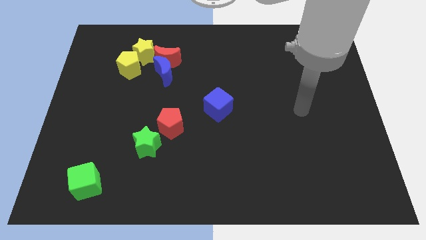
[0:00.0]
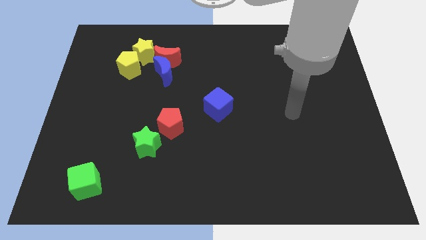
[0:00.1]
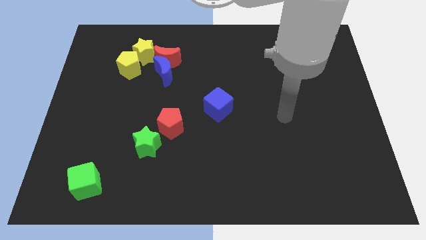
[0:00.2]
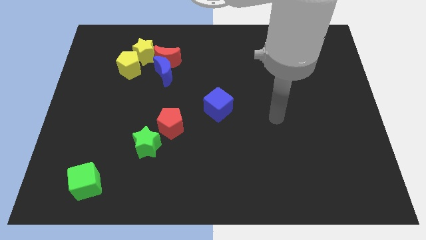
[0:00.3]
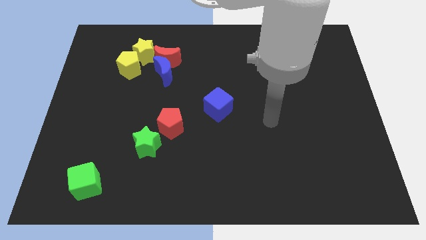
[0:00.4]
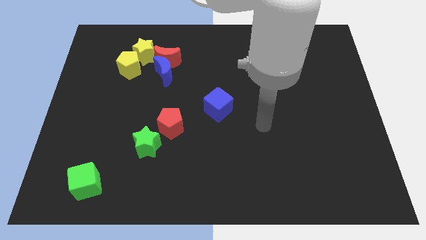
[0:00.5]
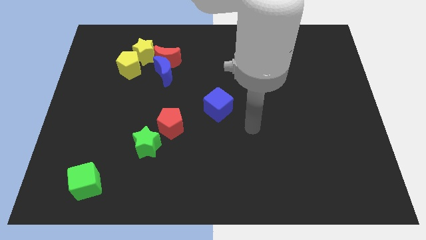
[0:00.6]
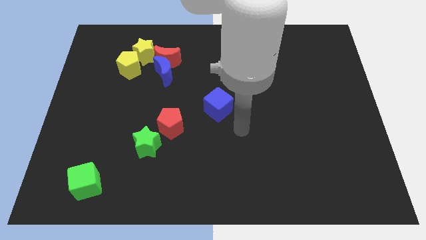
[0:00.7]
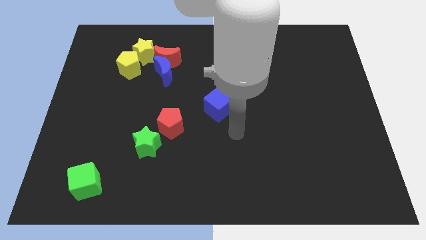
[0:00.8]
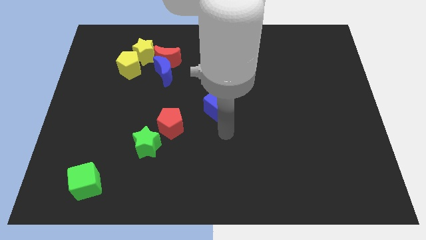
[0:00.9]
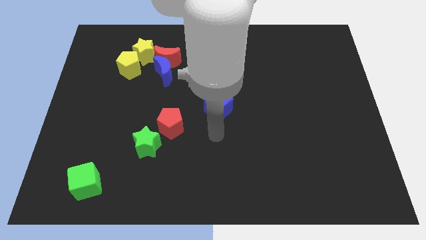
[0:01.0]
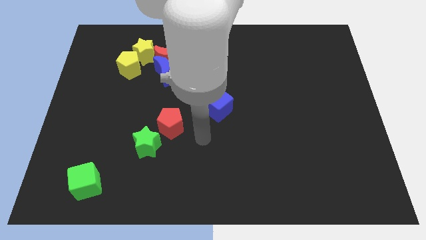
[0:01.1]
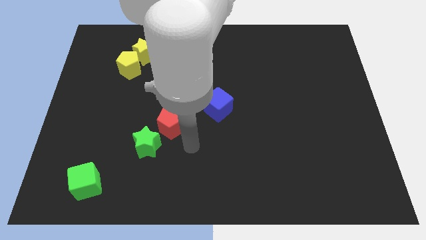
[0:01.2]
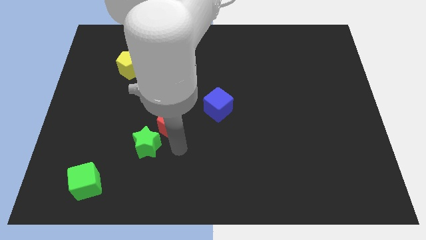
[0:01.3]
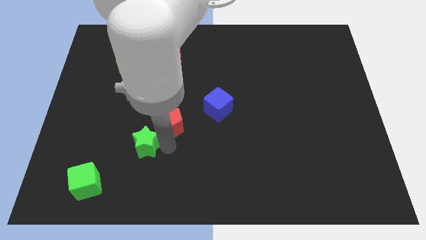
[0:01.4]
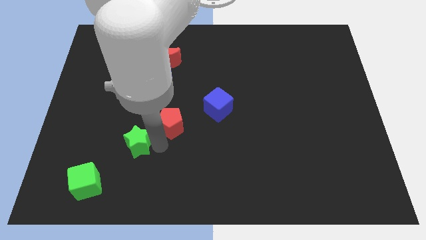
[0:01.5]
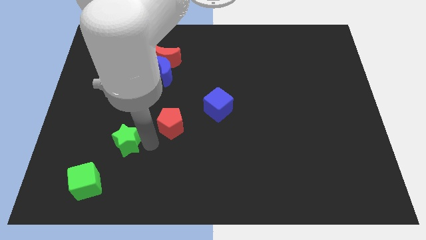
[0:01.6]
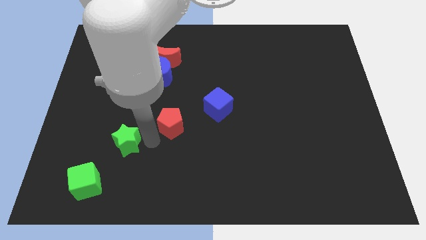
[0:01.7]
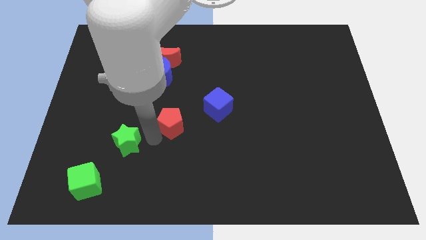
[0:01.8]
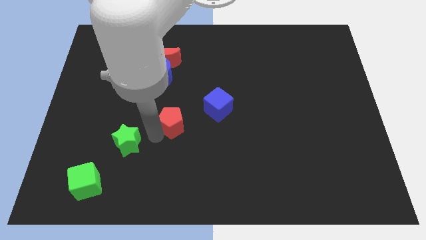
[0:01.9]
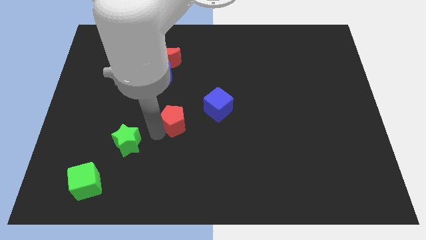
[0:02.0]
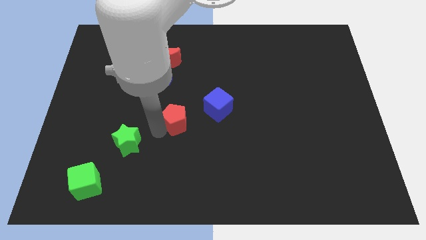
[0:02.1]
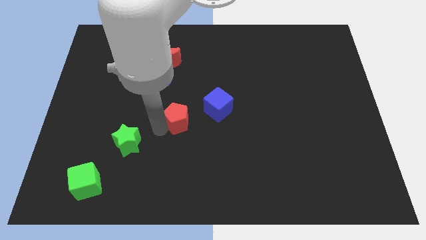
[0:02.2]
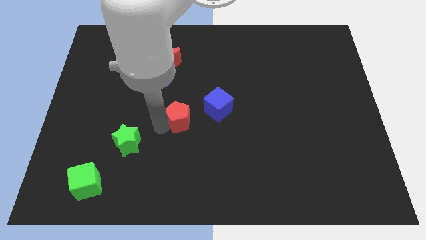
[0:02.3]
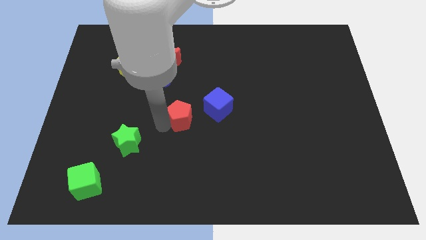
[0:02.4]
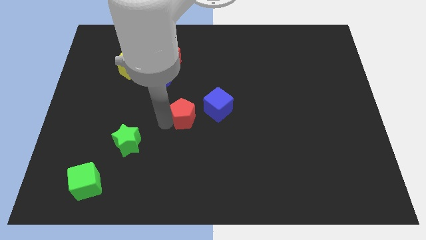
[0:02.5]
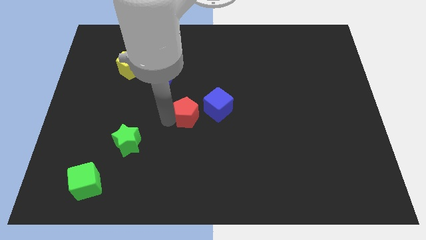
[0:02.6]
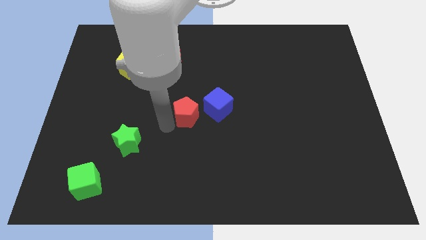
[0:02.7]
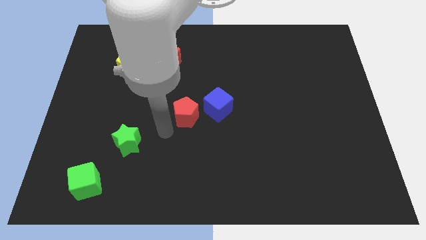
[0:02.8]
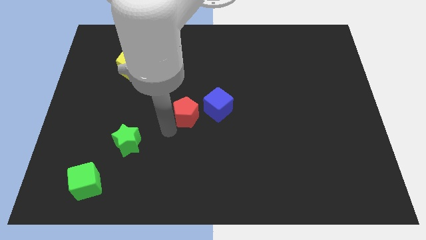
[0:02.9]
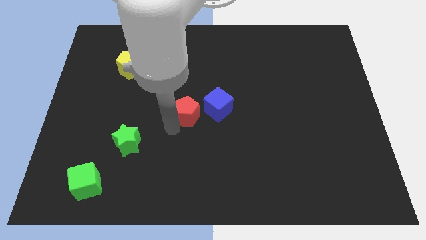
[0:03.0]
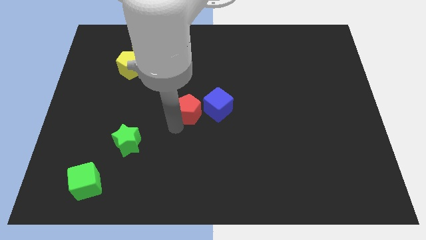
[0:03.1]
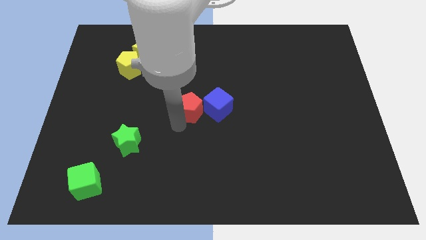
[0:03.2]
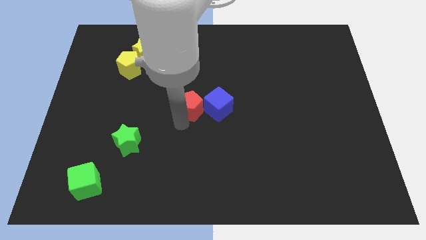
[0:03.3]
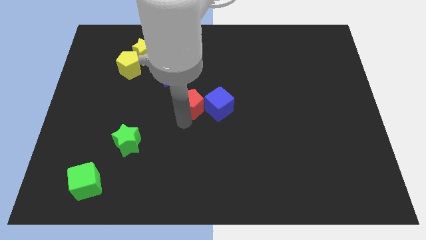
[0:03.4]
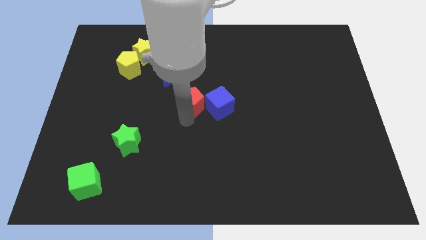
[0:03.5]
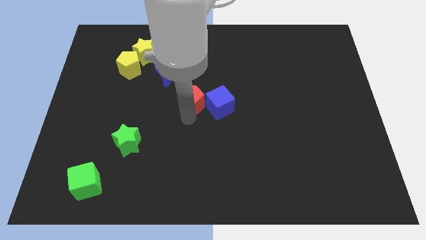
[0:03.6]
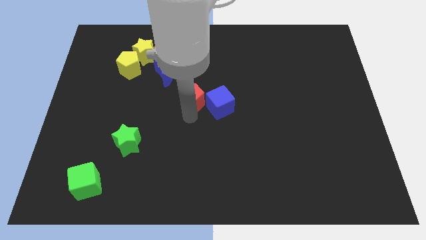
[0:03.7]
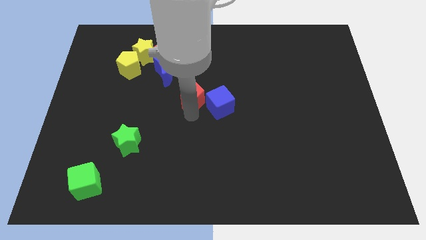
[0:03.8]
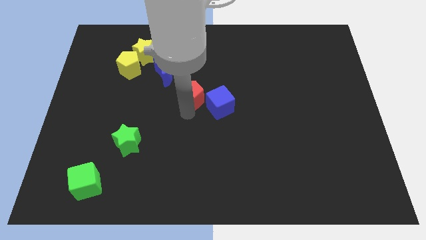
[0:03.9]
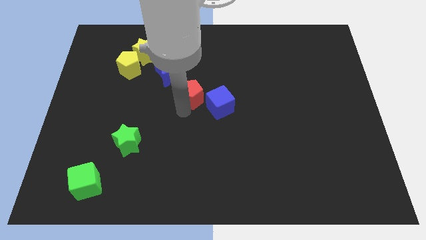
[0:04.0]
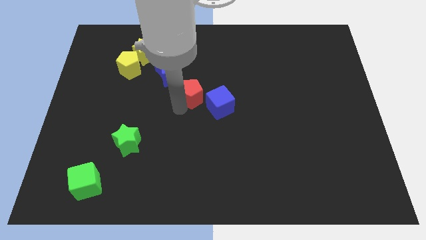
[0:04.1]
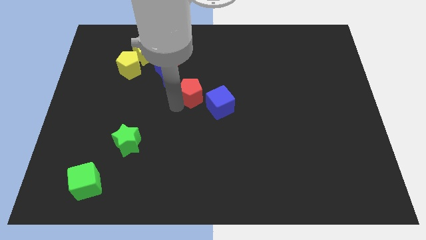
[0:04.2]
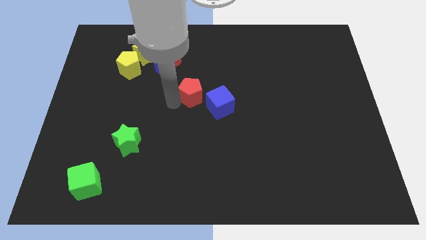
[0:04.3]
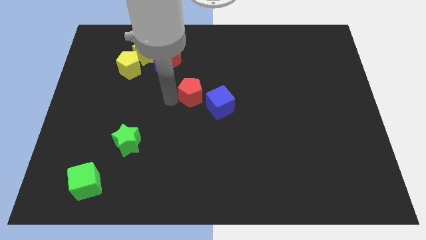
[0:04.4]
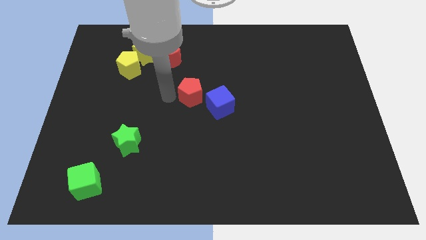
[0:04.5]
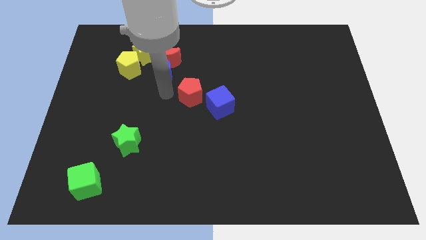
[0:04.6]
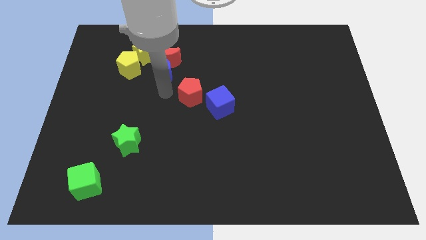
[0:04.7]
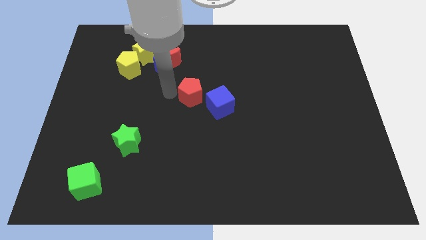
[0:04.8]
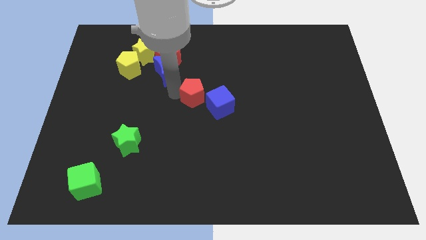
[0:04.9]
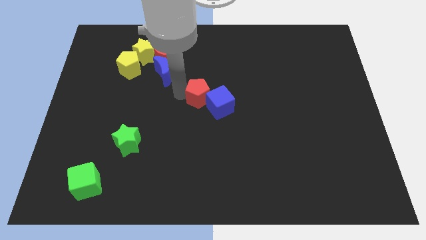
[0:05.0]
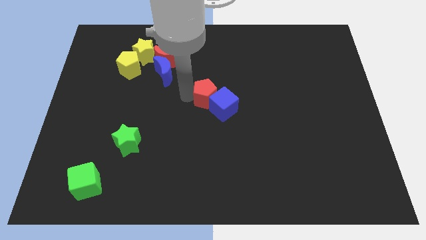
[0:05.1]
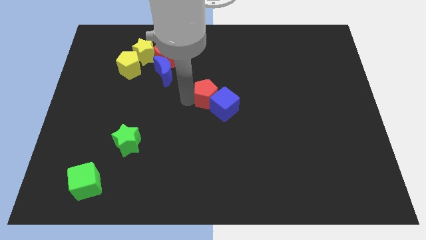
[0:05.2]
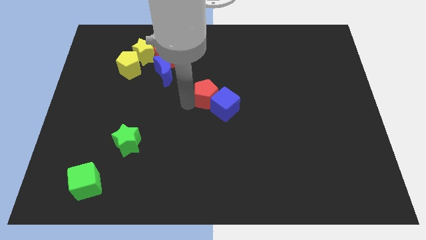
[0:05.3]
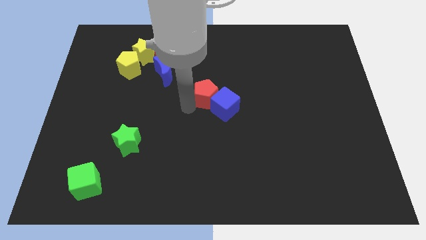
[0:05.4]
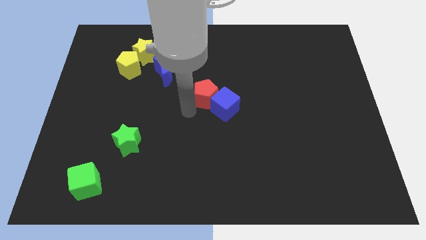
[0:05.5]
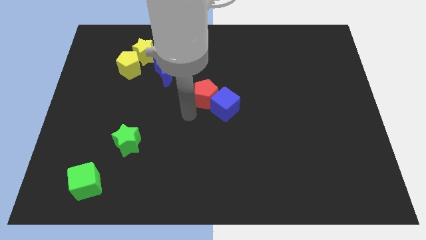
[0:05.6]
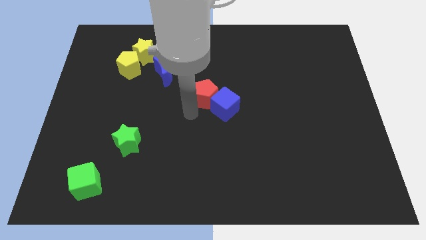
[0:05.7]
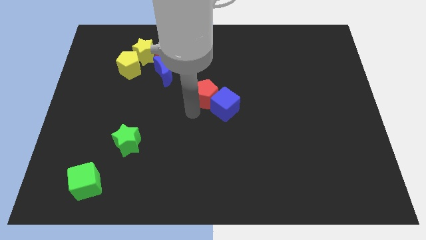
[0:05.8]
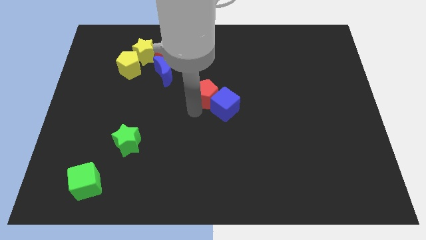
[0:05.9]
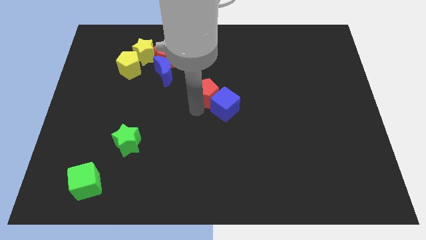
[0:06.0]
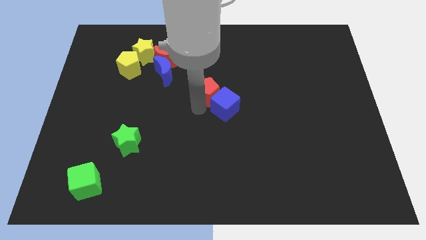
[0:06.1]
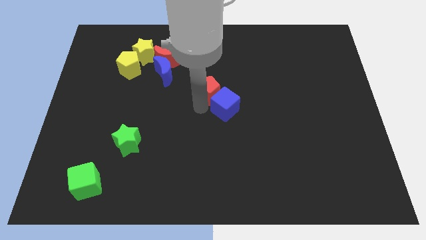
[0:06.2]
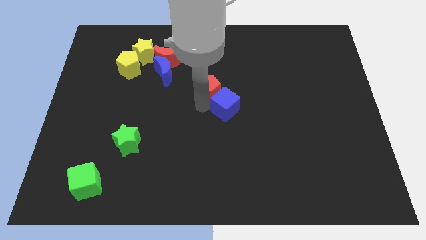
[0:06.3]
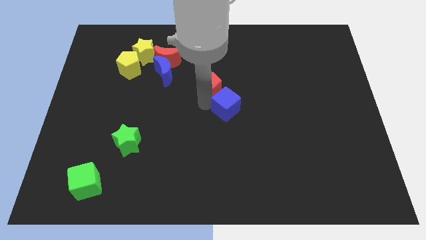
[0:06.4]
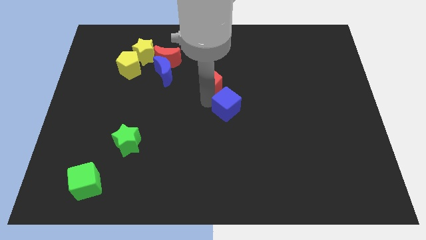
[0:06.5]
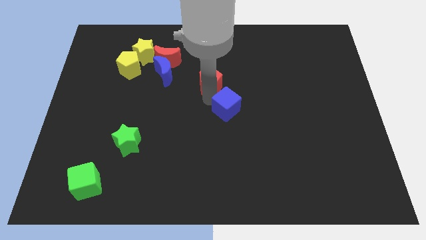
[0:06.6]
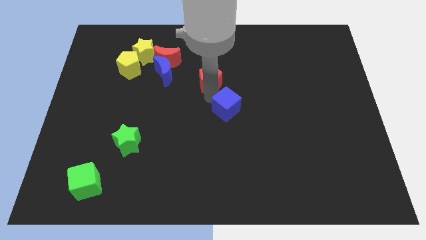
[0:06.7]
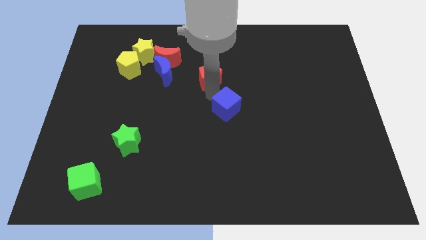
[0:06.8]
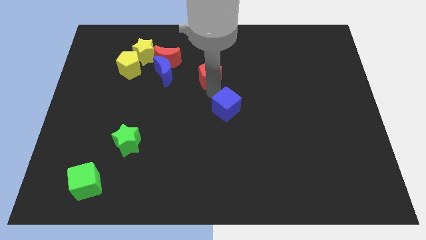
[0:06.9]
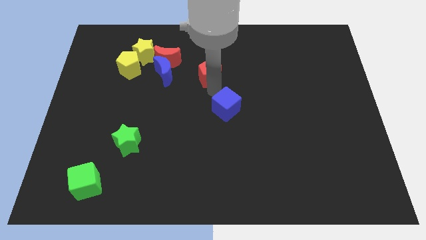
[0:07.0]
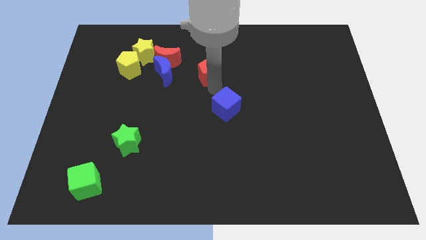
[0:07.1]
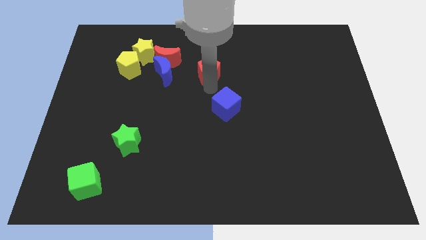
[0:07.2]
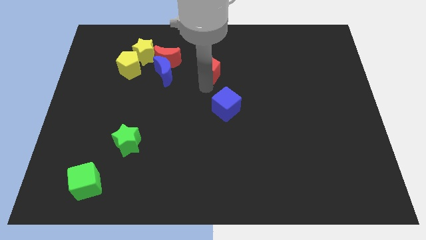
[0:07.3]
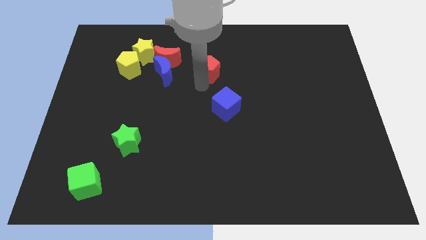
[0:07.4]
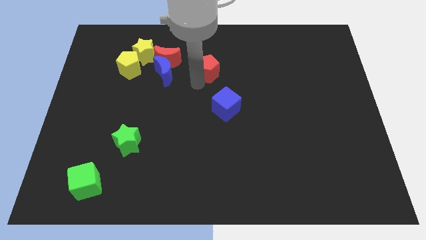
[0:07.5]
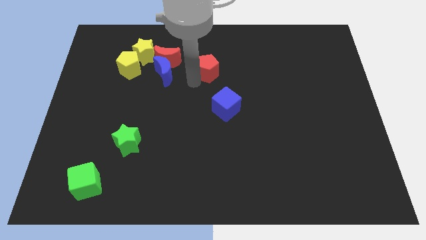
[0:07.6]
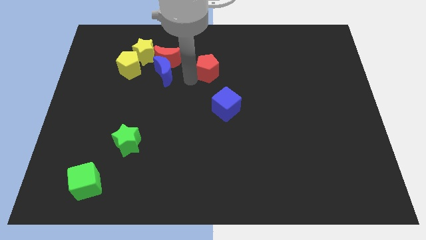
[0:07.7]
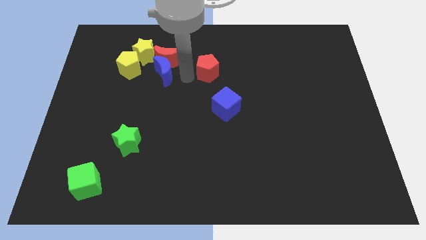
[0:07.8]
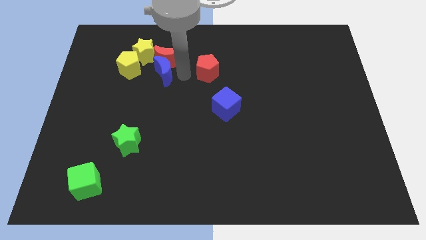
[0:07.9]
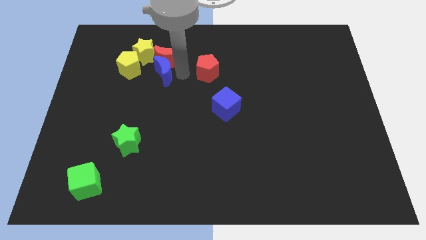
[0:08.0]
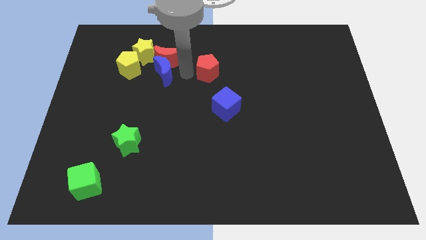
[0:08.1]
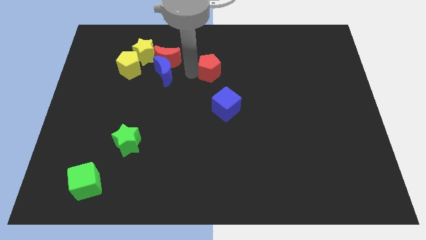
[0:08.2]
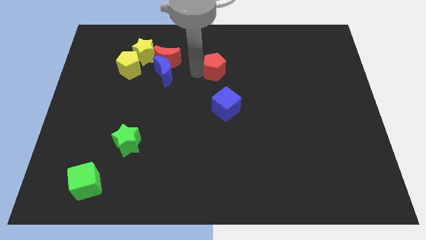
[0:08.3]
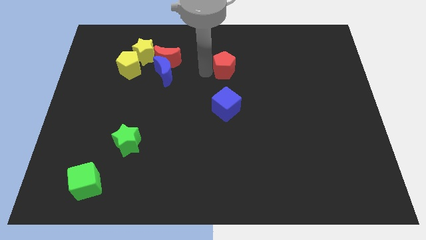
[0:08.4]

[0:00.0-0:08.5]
push the red pentagon upwards and right diagonally
